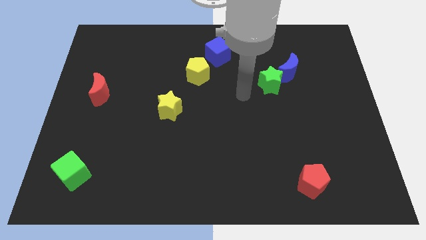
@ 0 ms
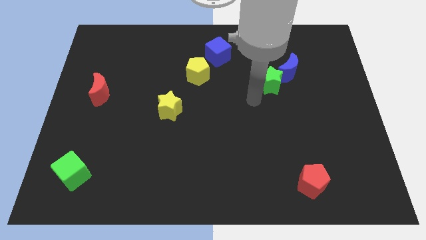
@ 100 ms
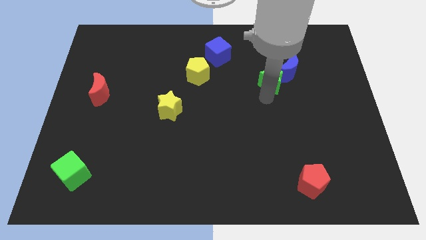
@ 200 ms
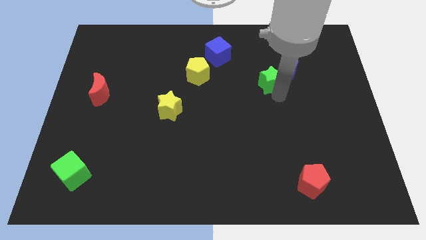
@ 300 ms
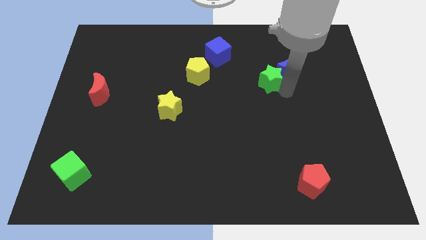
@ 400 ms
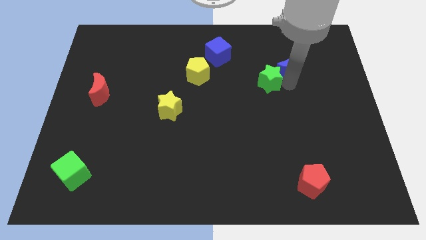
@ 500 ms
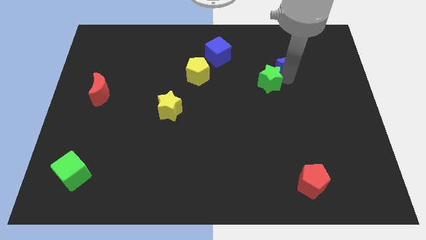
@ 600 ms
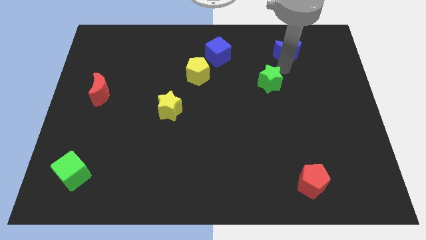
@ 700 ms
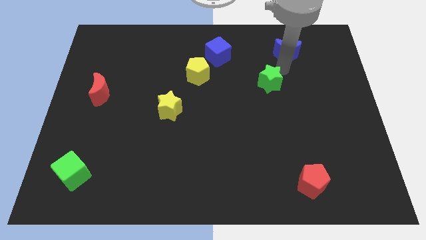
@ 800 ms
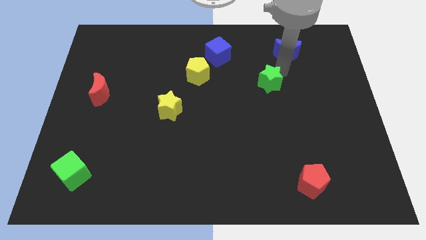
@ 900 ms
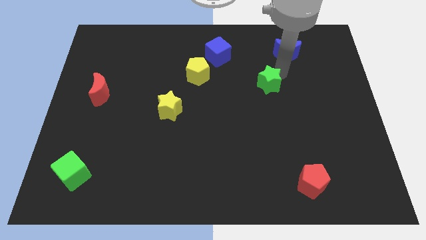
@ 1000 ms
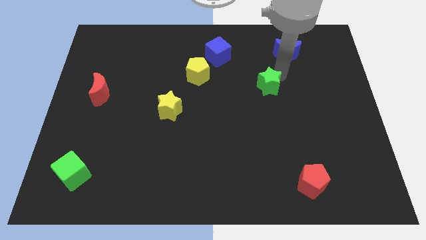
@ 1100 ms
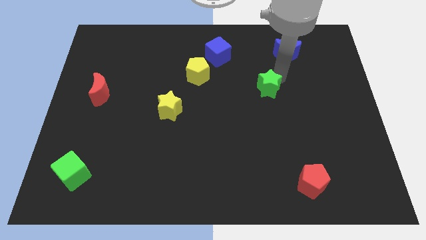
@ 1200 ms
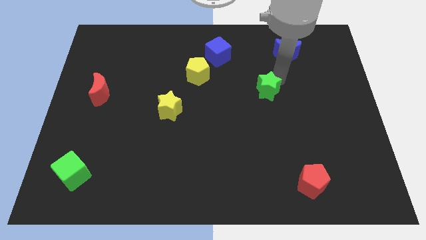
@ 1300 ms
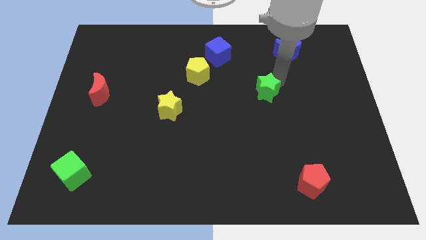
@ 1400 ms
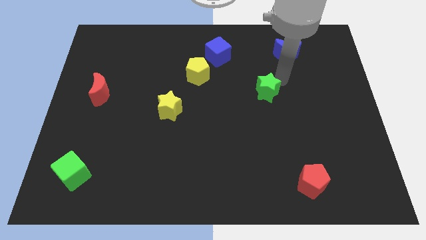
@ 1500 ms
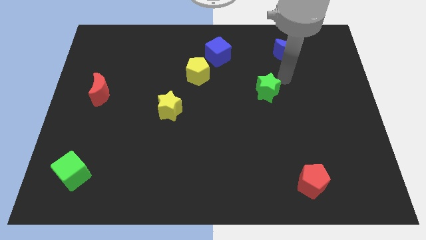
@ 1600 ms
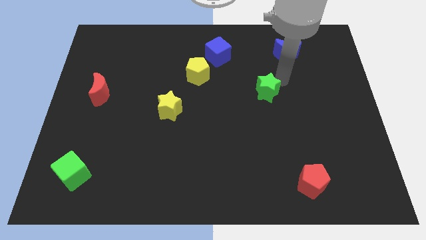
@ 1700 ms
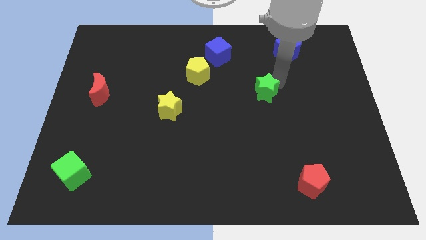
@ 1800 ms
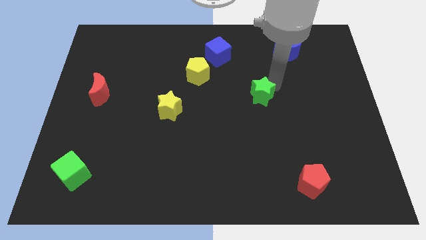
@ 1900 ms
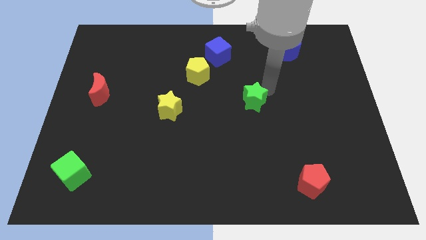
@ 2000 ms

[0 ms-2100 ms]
move the green star a little down and to the left diagonally

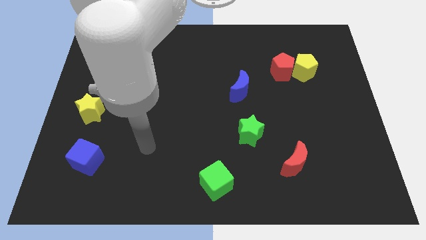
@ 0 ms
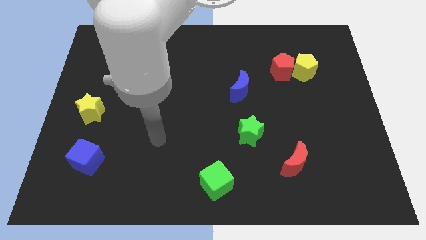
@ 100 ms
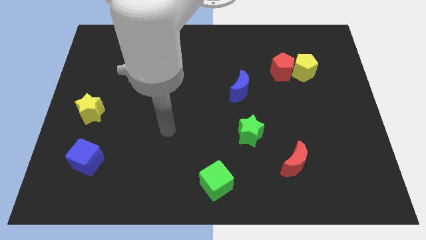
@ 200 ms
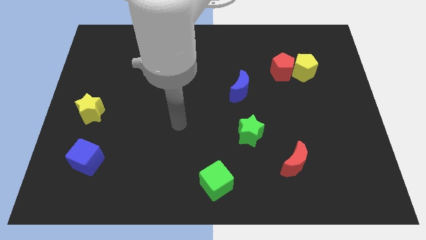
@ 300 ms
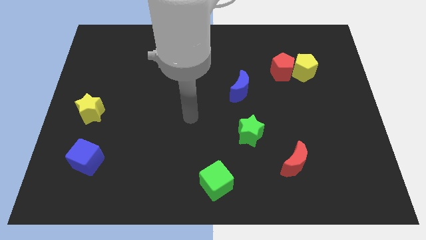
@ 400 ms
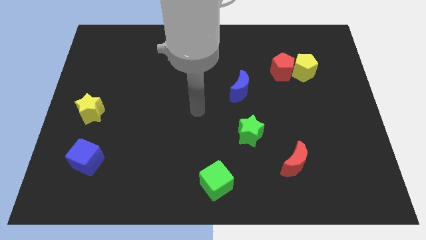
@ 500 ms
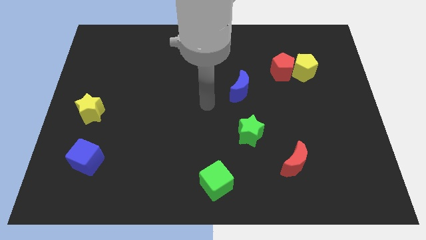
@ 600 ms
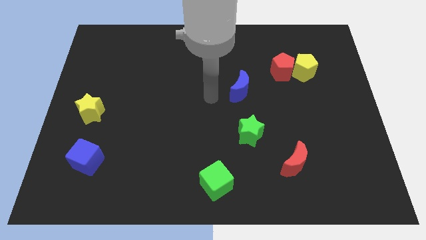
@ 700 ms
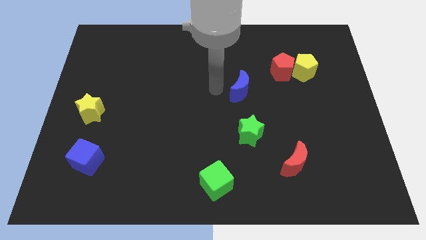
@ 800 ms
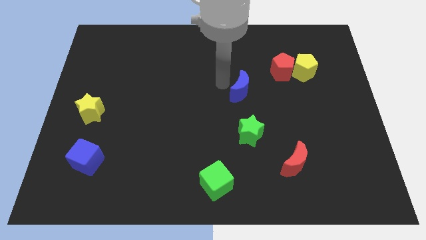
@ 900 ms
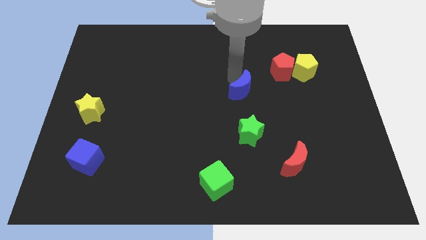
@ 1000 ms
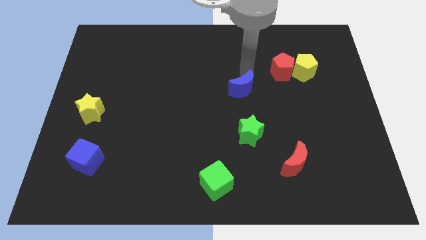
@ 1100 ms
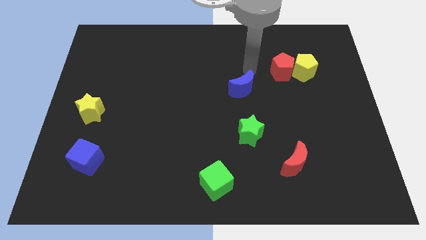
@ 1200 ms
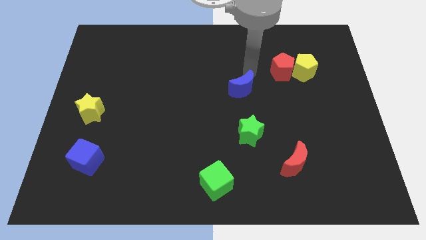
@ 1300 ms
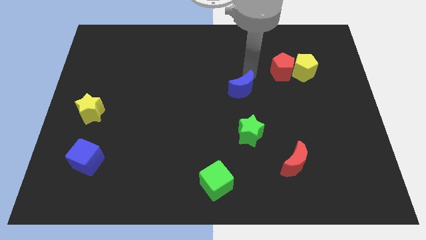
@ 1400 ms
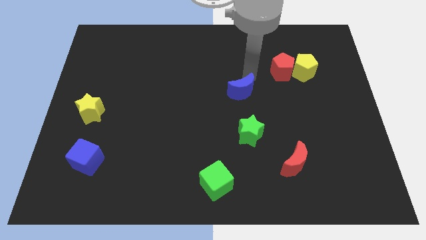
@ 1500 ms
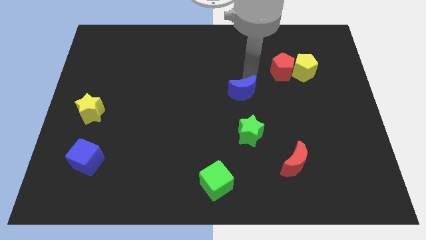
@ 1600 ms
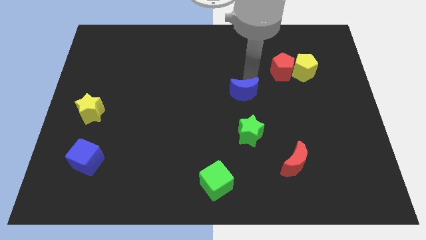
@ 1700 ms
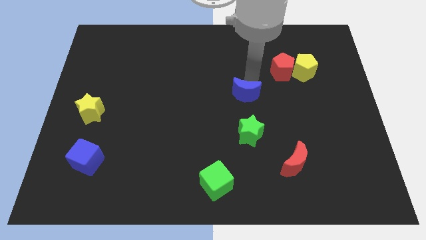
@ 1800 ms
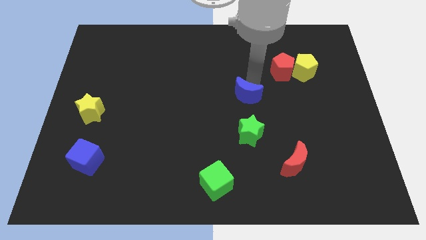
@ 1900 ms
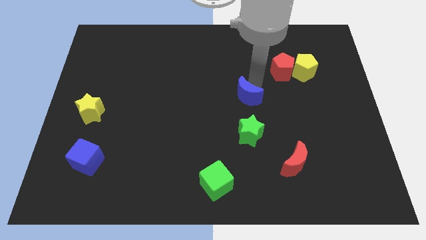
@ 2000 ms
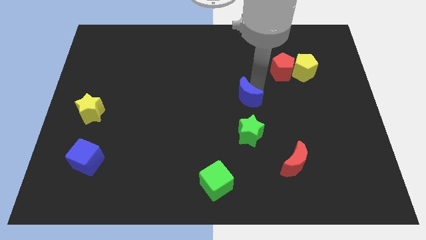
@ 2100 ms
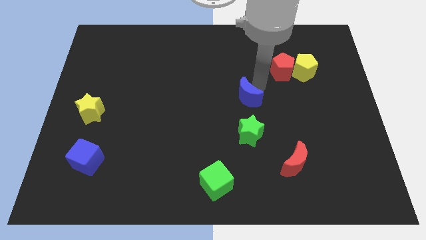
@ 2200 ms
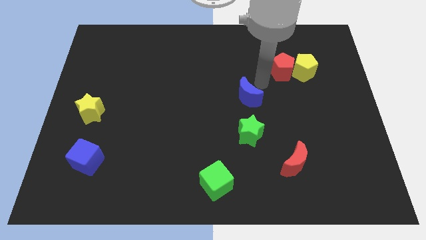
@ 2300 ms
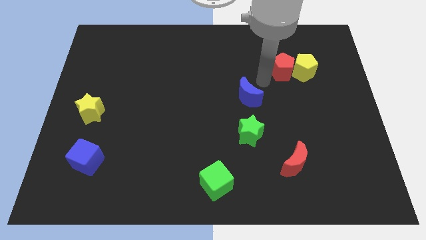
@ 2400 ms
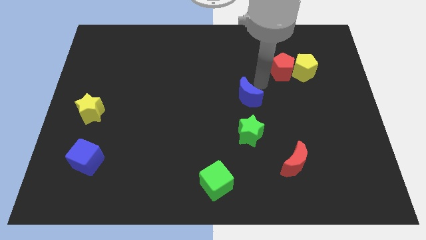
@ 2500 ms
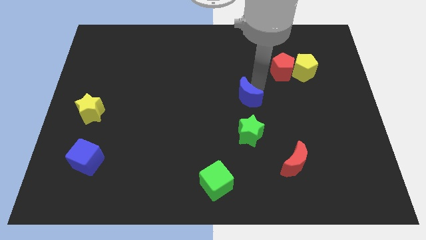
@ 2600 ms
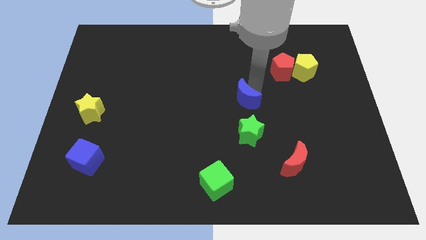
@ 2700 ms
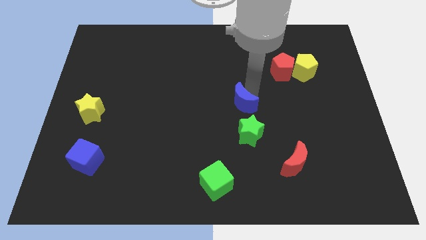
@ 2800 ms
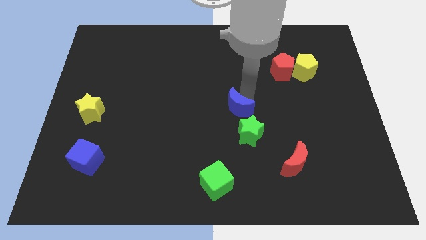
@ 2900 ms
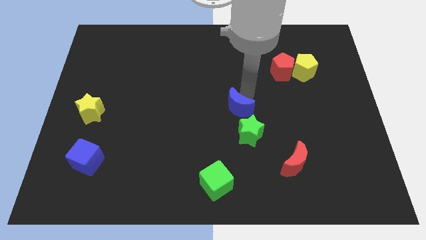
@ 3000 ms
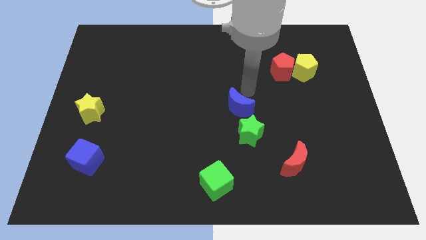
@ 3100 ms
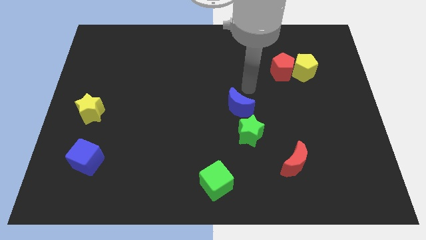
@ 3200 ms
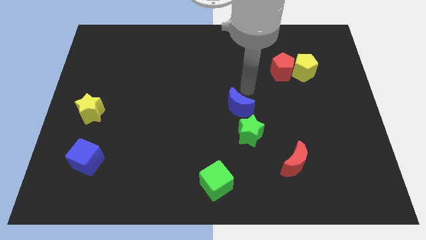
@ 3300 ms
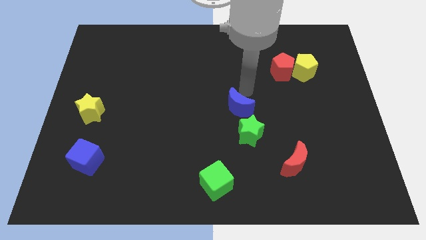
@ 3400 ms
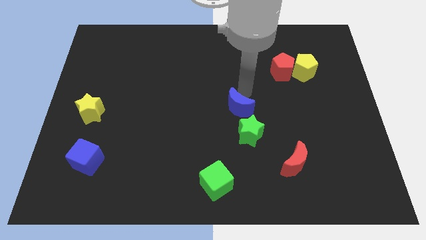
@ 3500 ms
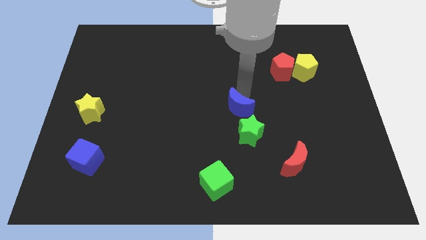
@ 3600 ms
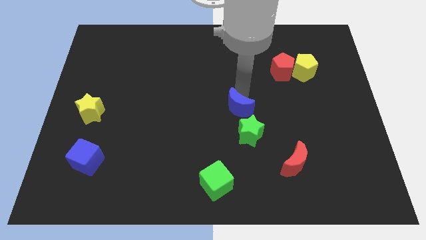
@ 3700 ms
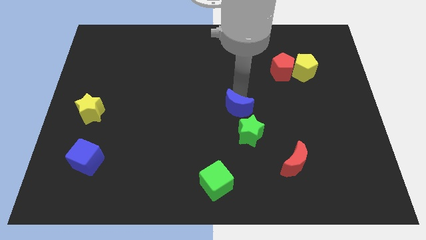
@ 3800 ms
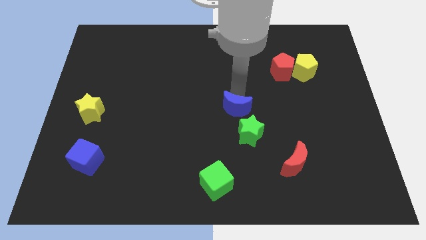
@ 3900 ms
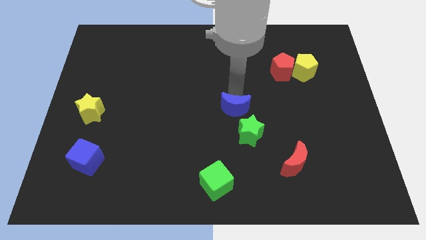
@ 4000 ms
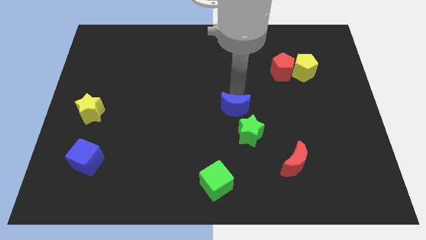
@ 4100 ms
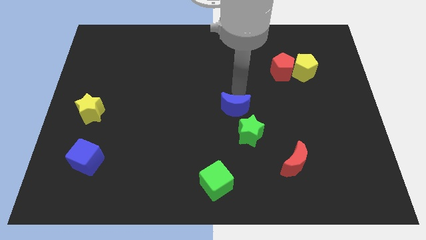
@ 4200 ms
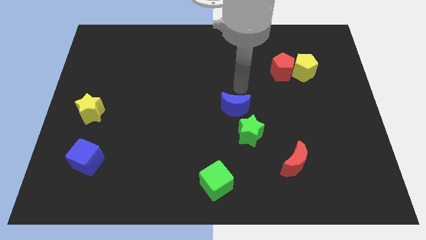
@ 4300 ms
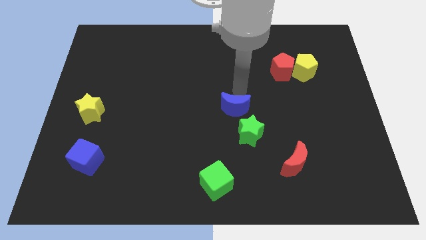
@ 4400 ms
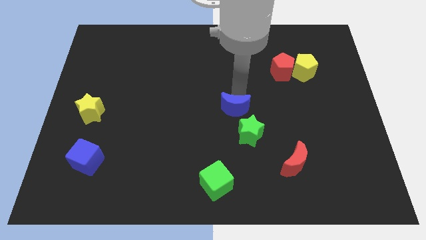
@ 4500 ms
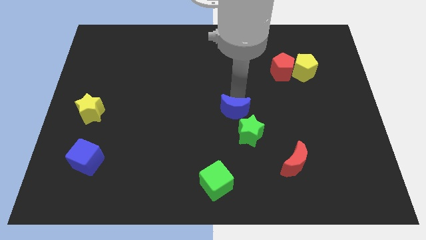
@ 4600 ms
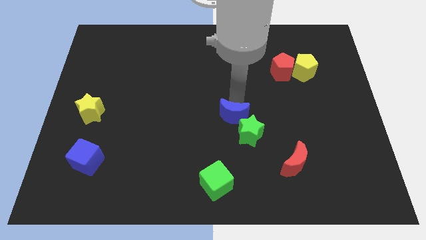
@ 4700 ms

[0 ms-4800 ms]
slide the blue moon slightly downwards

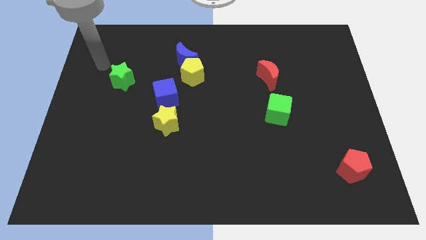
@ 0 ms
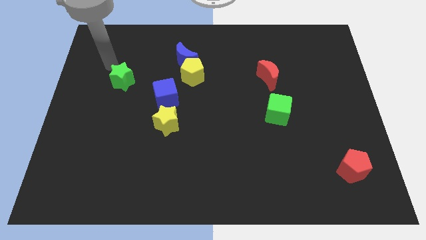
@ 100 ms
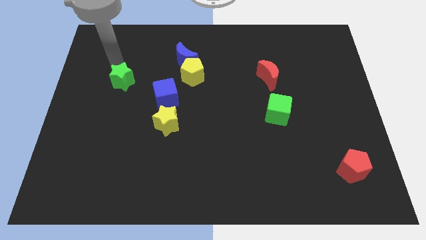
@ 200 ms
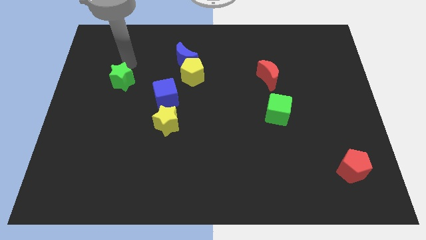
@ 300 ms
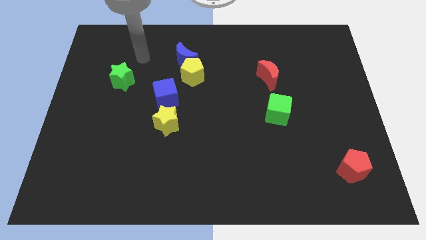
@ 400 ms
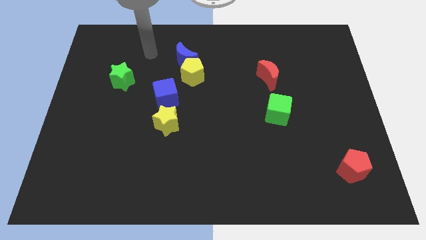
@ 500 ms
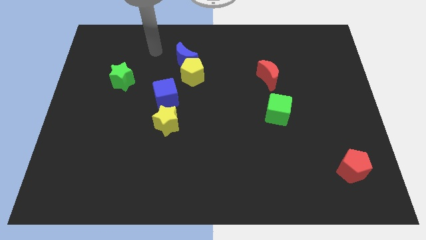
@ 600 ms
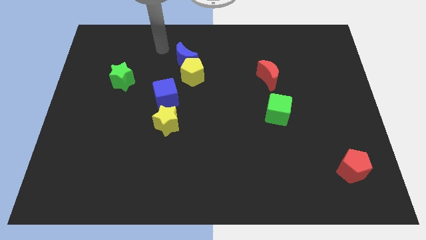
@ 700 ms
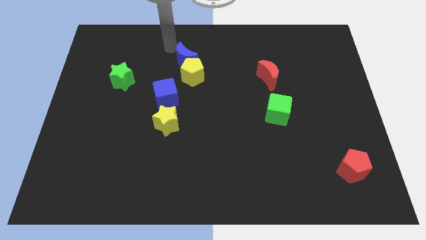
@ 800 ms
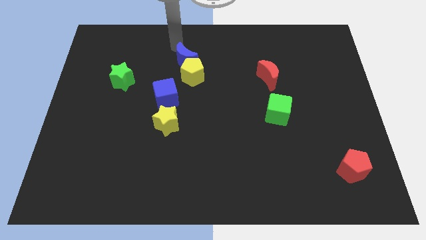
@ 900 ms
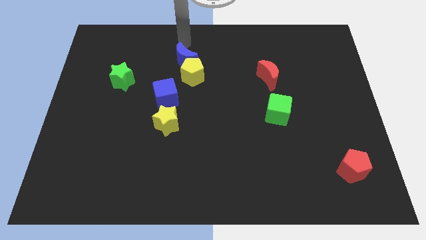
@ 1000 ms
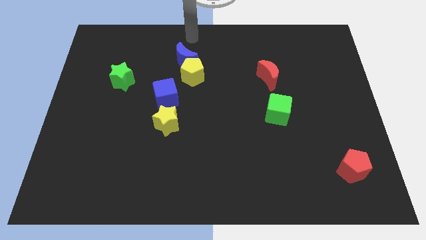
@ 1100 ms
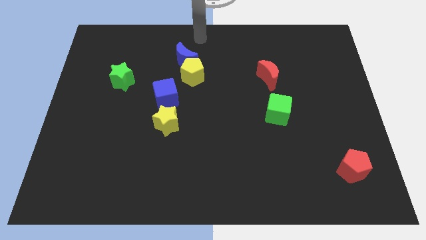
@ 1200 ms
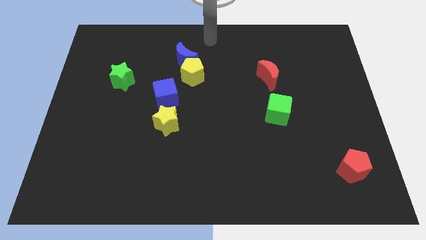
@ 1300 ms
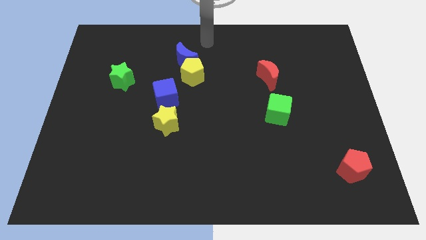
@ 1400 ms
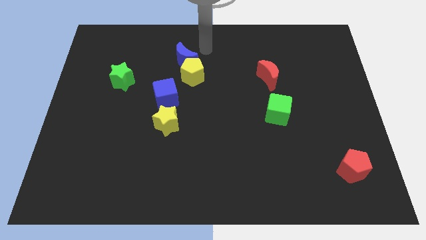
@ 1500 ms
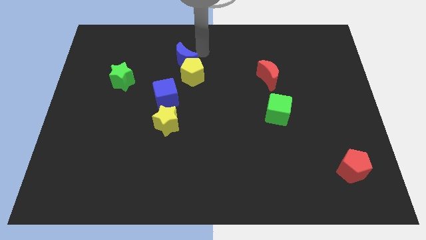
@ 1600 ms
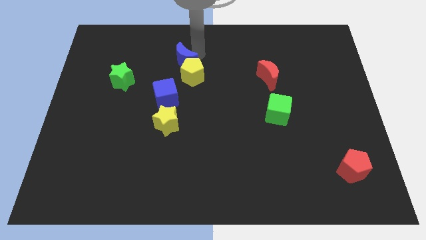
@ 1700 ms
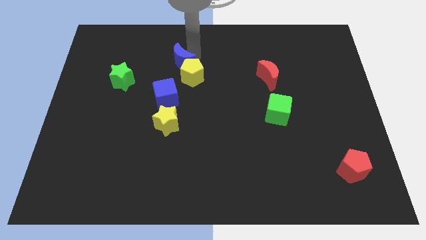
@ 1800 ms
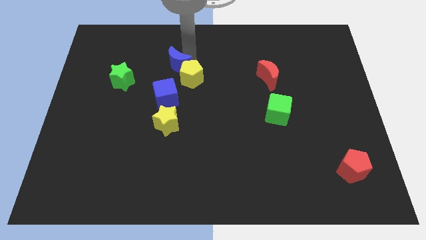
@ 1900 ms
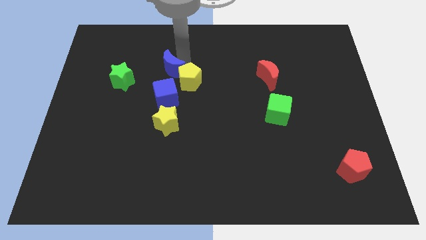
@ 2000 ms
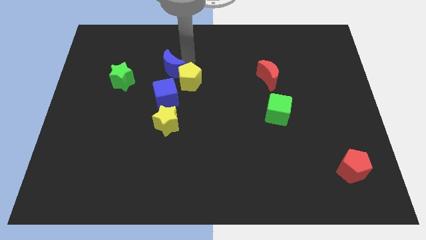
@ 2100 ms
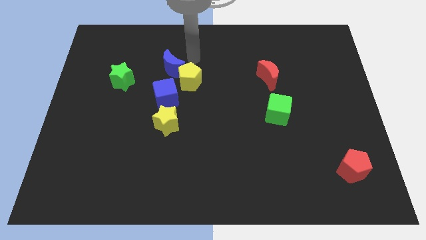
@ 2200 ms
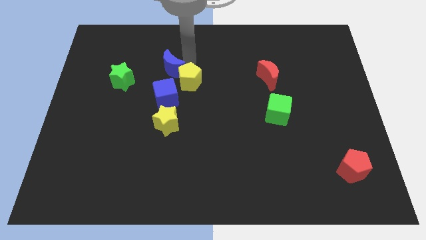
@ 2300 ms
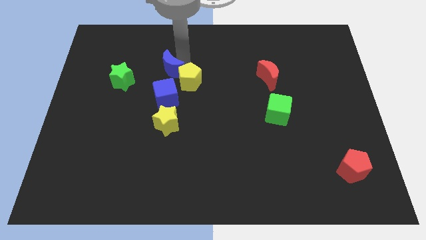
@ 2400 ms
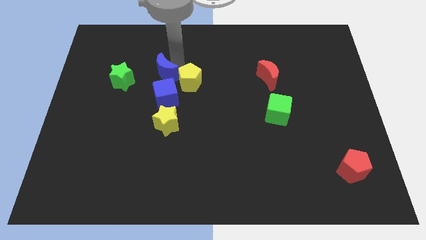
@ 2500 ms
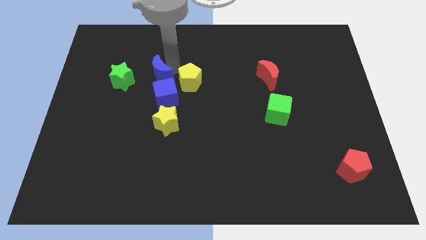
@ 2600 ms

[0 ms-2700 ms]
slide the blue moon down and then to the left slightly
